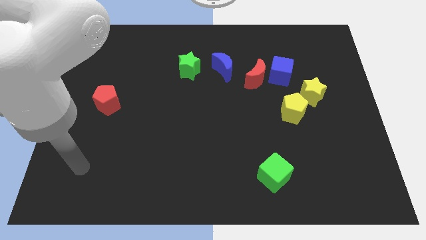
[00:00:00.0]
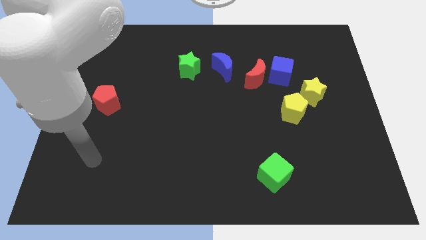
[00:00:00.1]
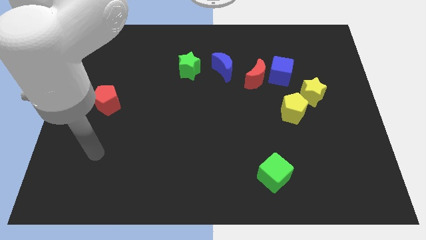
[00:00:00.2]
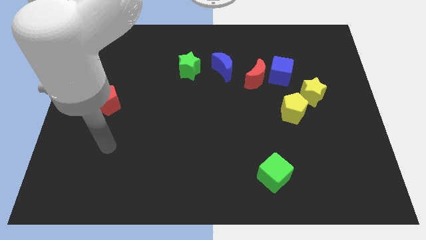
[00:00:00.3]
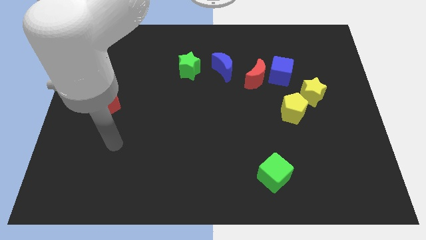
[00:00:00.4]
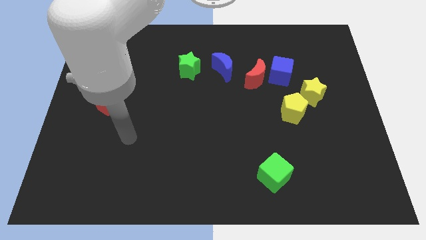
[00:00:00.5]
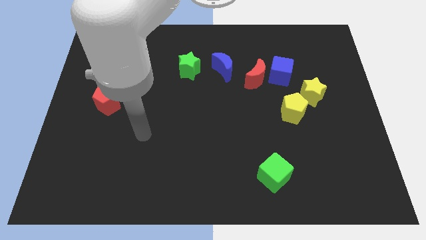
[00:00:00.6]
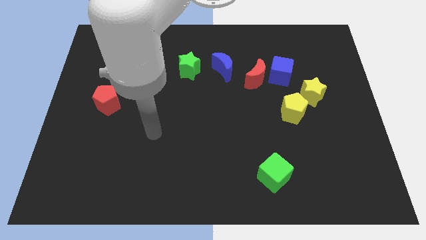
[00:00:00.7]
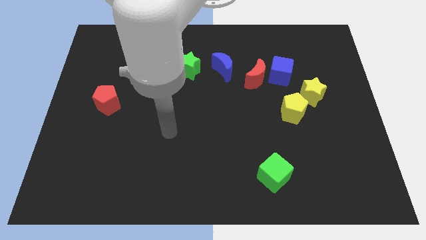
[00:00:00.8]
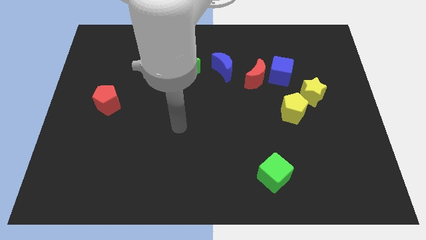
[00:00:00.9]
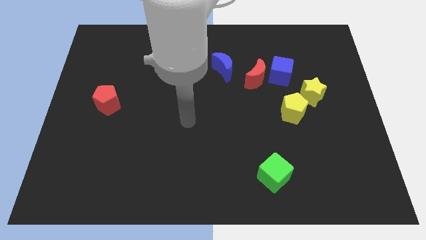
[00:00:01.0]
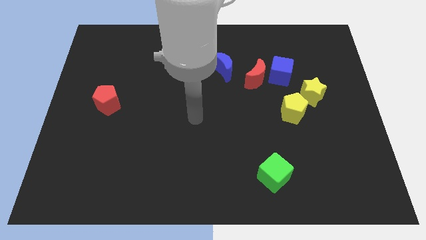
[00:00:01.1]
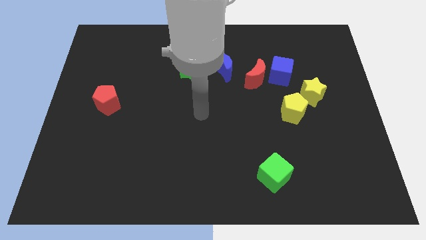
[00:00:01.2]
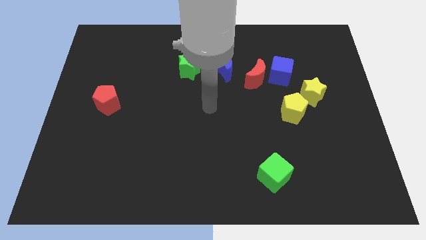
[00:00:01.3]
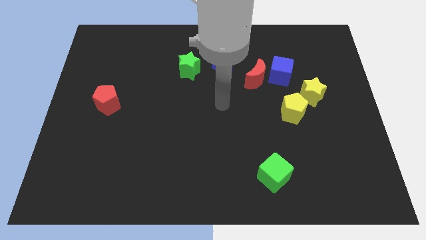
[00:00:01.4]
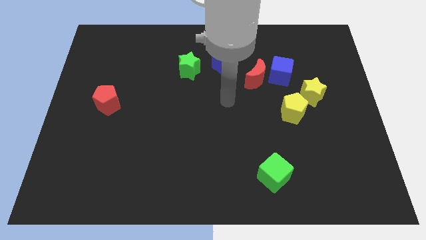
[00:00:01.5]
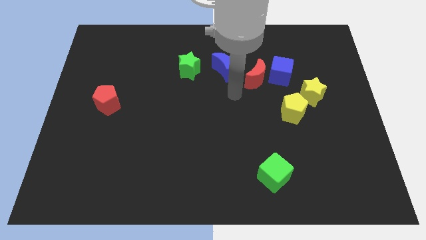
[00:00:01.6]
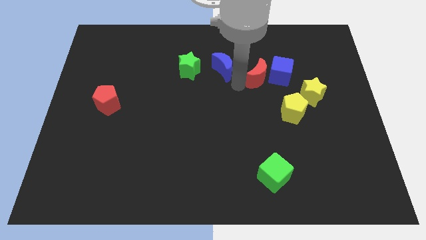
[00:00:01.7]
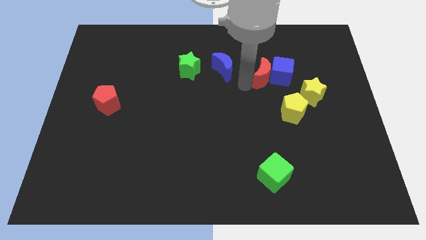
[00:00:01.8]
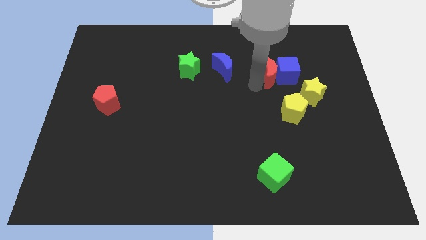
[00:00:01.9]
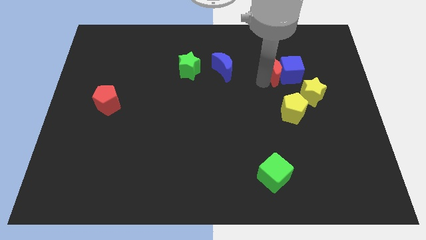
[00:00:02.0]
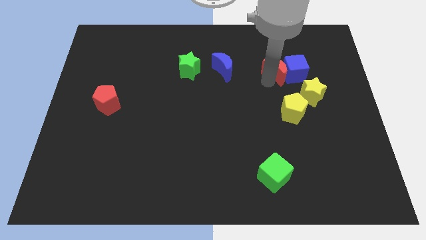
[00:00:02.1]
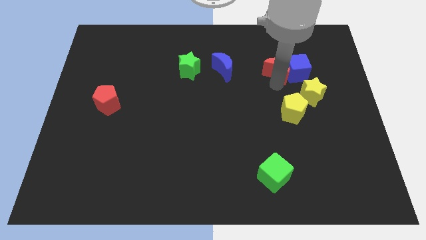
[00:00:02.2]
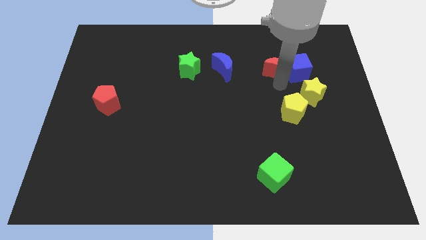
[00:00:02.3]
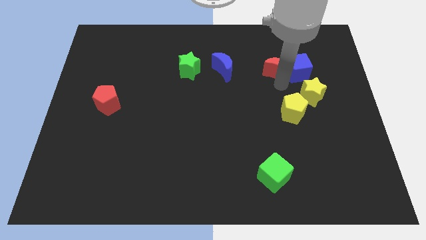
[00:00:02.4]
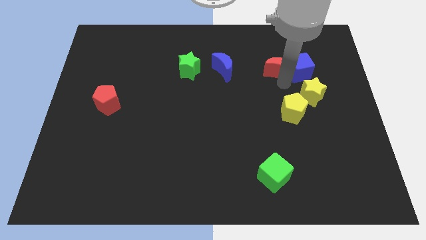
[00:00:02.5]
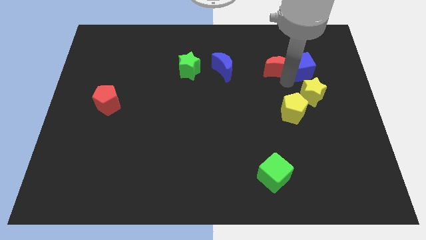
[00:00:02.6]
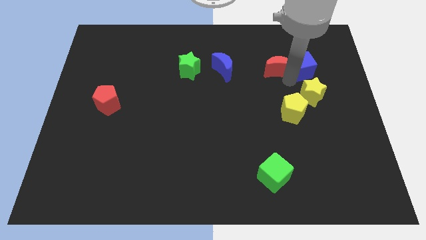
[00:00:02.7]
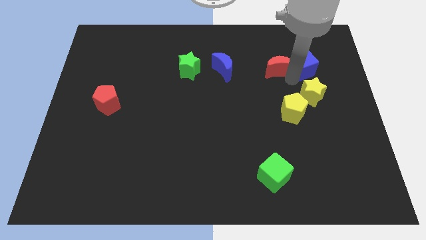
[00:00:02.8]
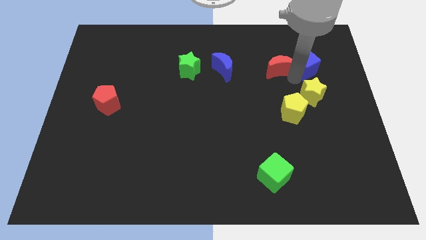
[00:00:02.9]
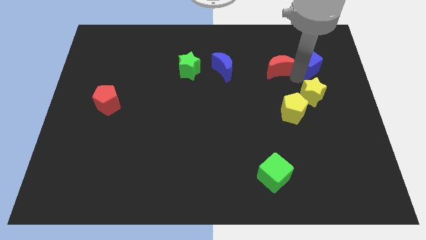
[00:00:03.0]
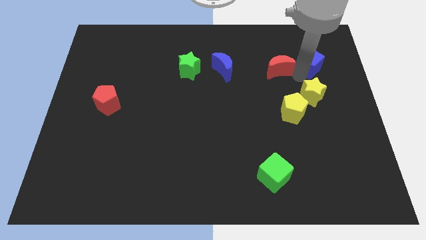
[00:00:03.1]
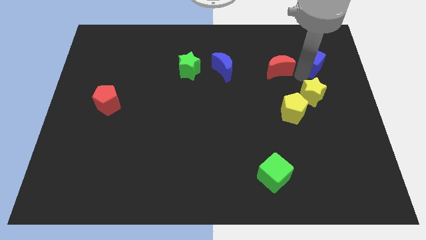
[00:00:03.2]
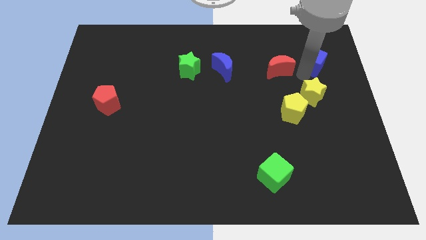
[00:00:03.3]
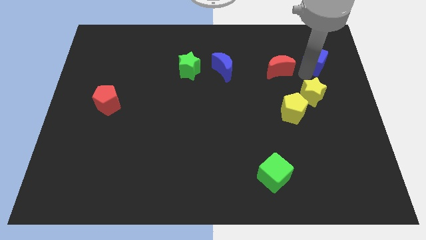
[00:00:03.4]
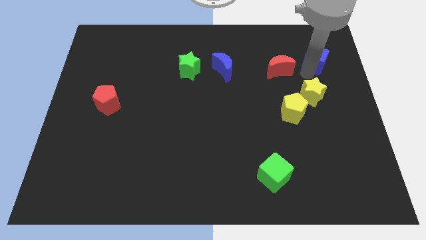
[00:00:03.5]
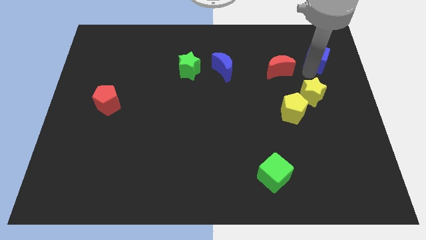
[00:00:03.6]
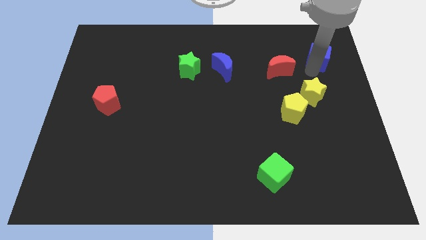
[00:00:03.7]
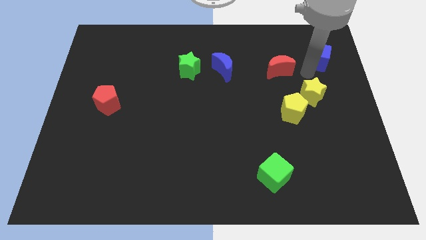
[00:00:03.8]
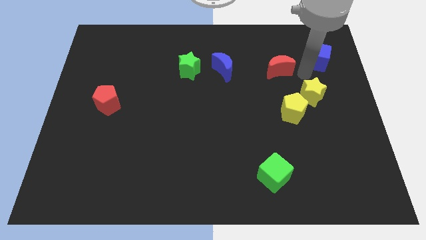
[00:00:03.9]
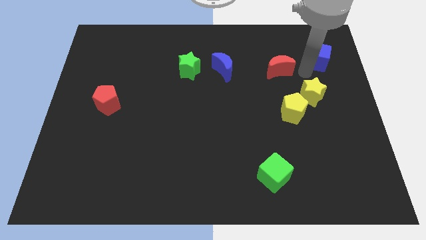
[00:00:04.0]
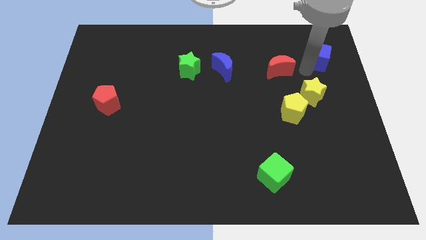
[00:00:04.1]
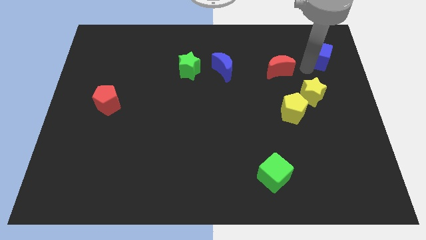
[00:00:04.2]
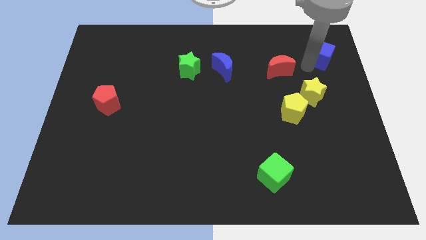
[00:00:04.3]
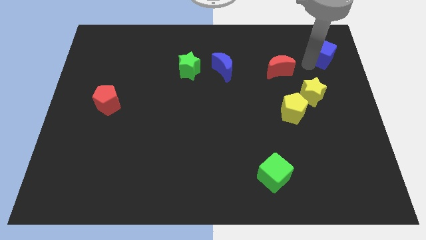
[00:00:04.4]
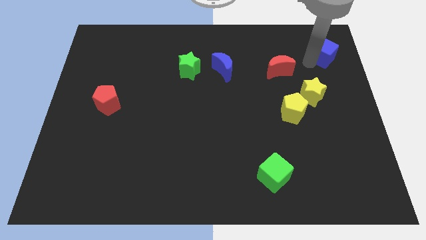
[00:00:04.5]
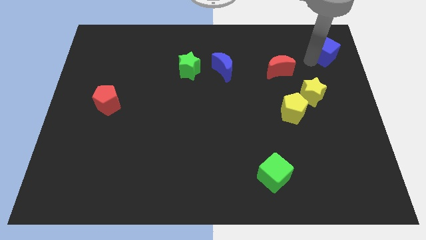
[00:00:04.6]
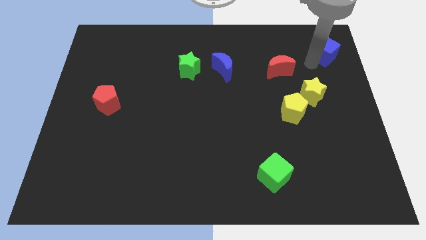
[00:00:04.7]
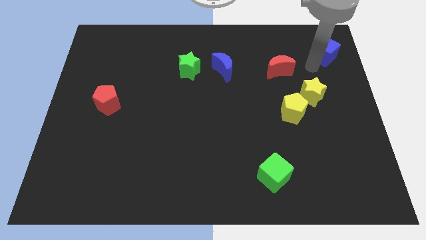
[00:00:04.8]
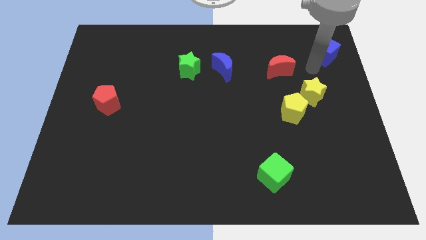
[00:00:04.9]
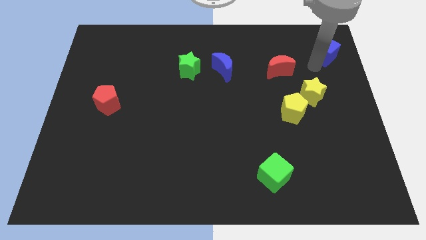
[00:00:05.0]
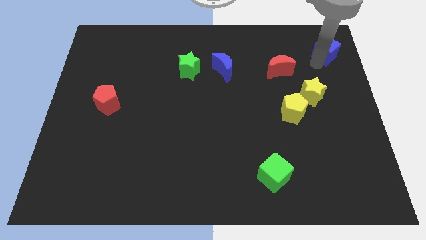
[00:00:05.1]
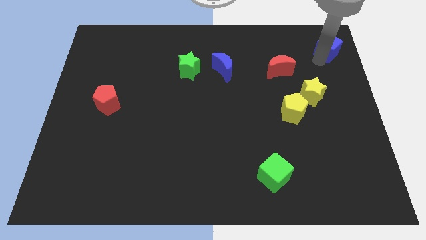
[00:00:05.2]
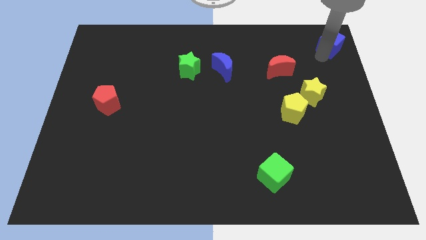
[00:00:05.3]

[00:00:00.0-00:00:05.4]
put the blue cube to the top right corner
